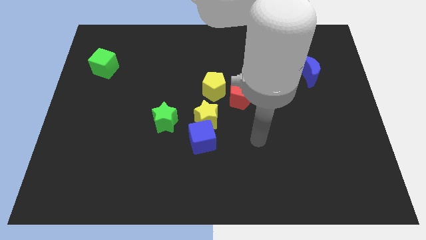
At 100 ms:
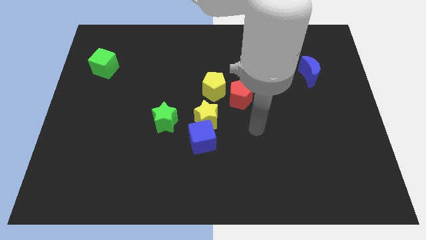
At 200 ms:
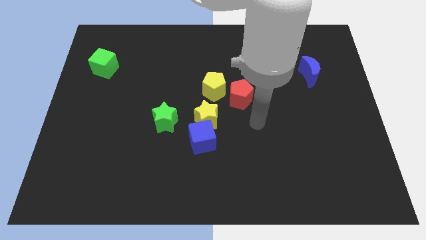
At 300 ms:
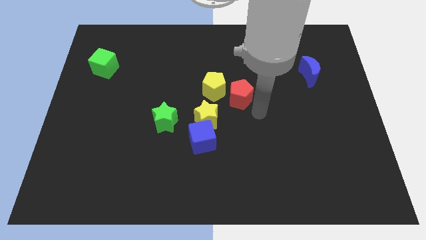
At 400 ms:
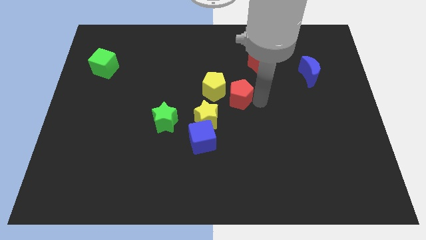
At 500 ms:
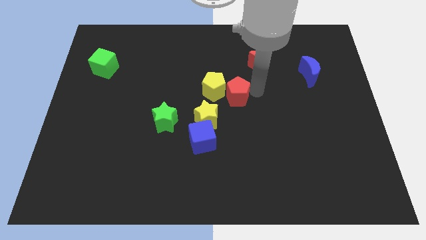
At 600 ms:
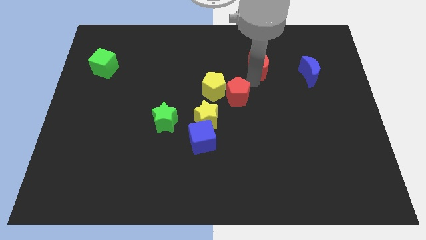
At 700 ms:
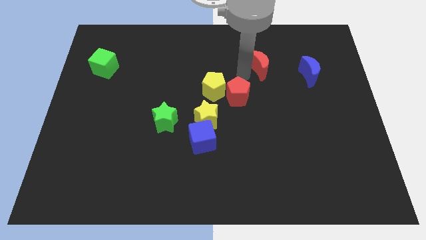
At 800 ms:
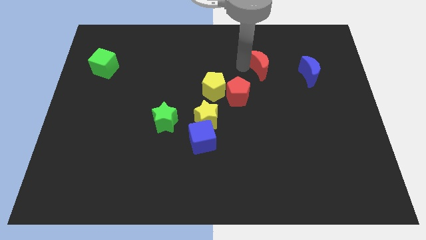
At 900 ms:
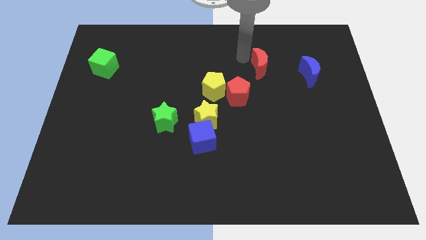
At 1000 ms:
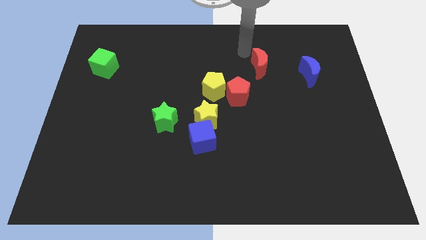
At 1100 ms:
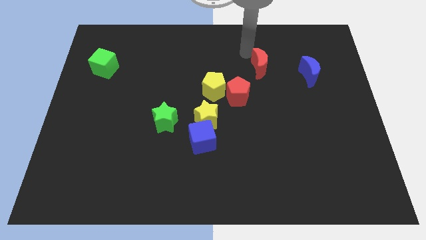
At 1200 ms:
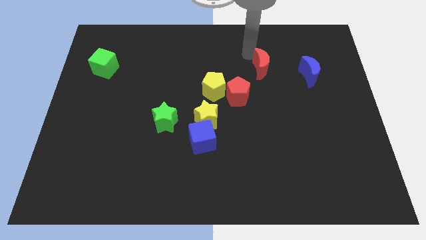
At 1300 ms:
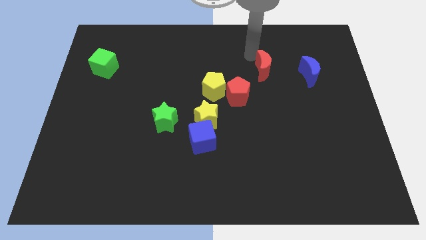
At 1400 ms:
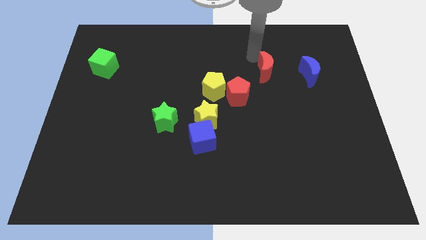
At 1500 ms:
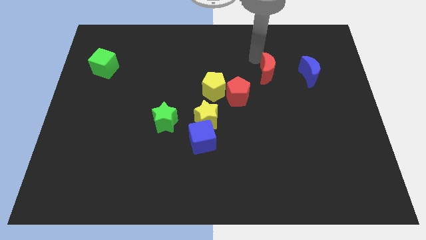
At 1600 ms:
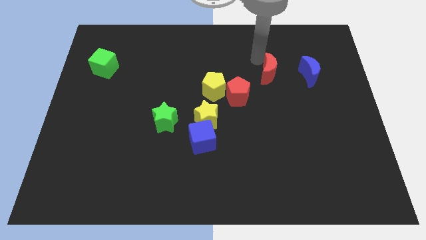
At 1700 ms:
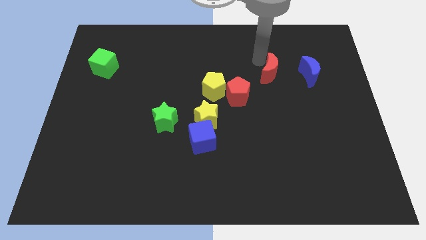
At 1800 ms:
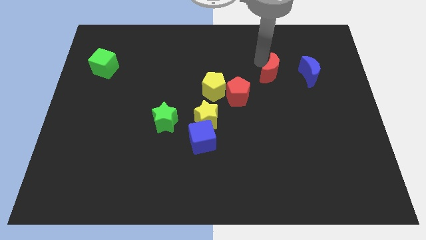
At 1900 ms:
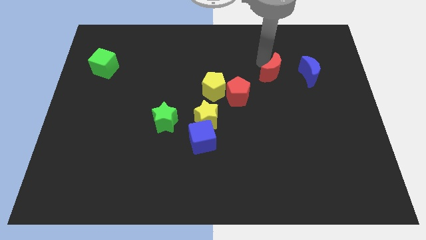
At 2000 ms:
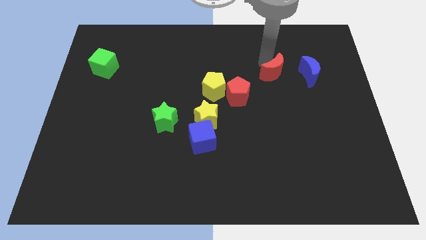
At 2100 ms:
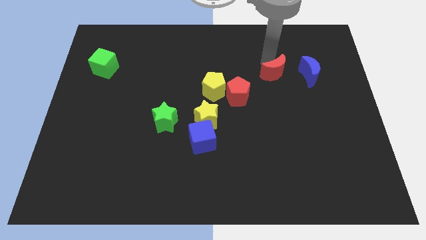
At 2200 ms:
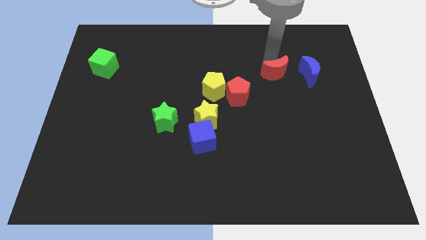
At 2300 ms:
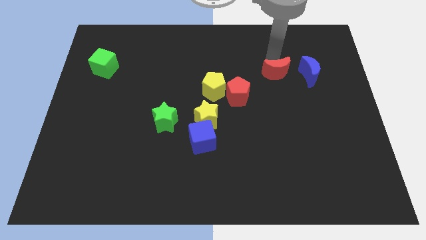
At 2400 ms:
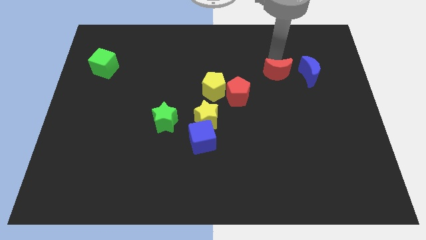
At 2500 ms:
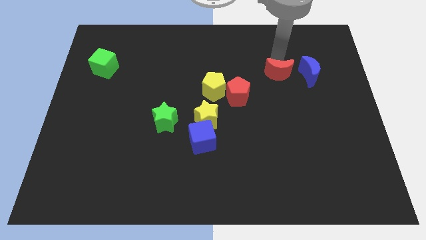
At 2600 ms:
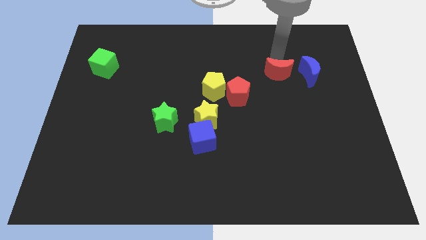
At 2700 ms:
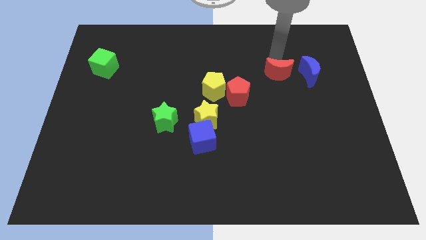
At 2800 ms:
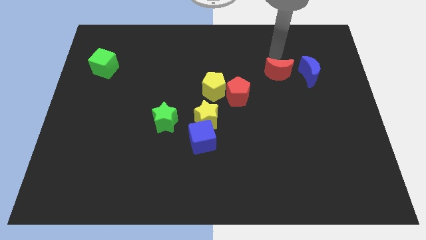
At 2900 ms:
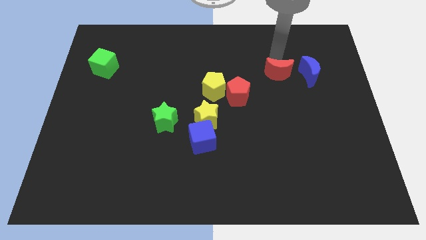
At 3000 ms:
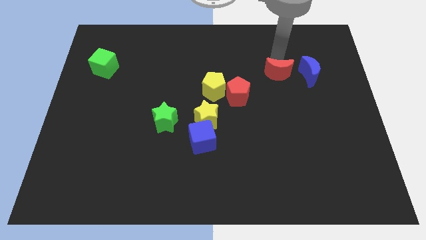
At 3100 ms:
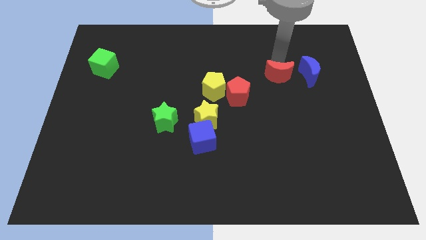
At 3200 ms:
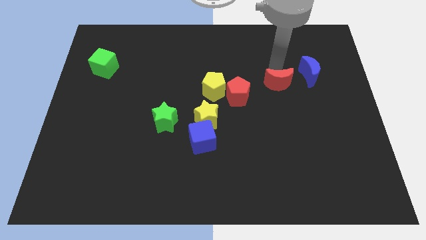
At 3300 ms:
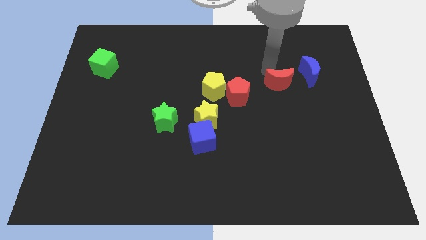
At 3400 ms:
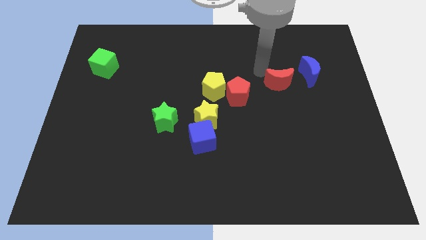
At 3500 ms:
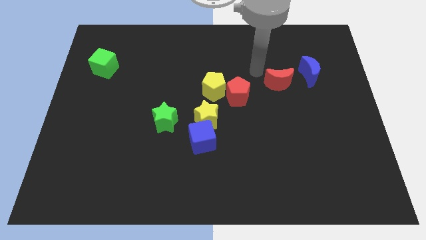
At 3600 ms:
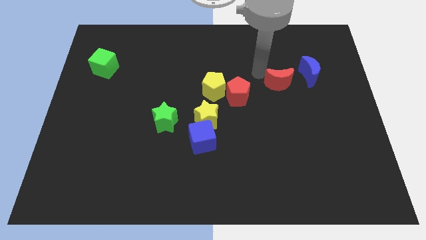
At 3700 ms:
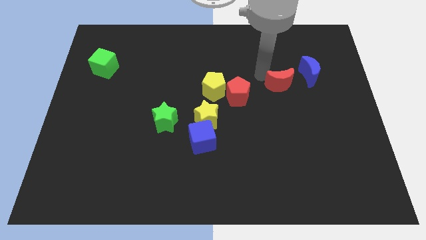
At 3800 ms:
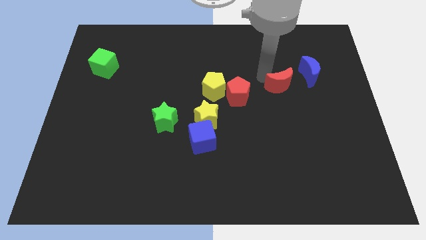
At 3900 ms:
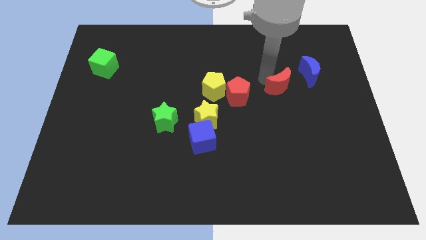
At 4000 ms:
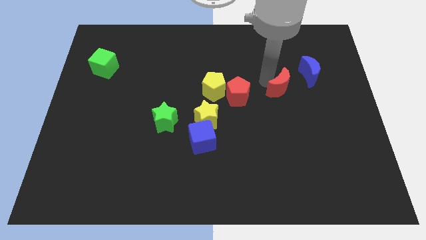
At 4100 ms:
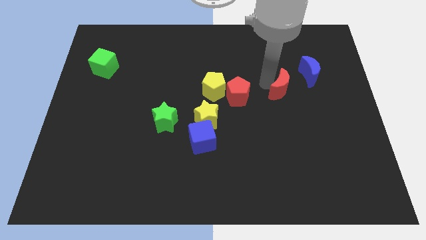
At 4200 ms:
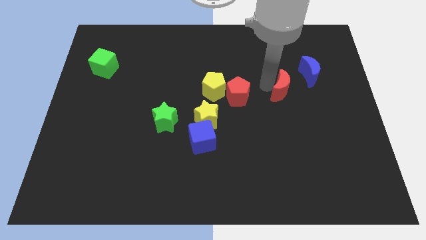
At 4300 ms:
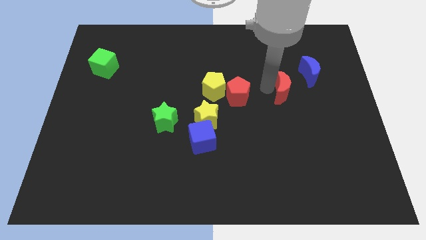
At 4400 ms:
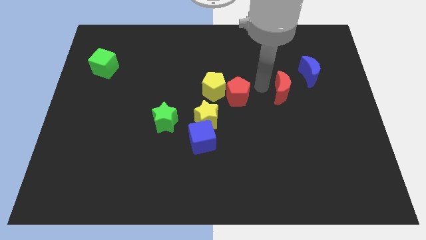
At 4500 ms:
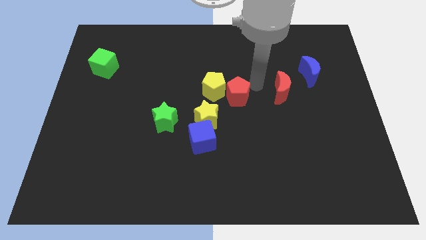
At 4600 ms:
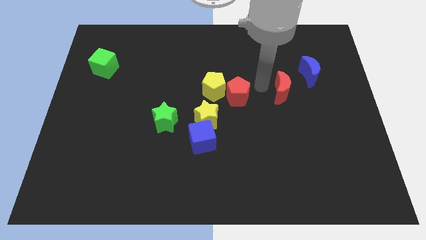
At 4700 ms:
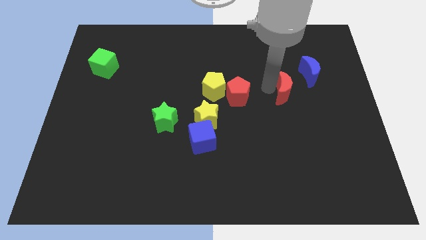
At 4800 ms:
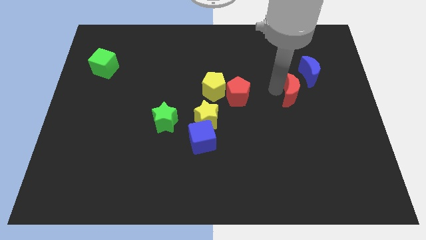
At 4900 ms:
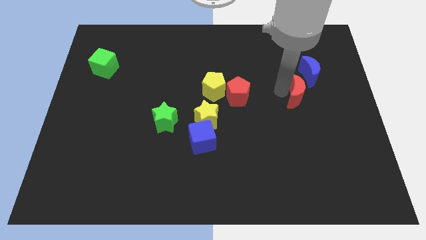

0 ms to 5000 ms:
push the red moon below the blue moon

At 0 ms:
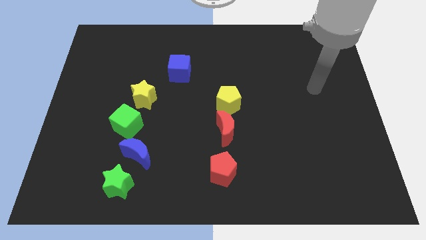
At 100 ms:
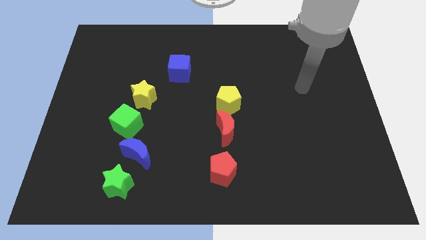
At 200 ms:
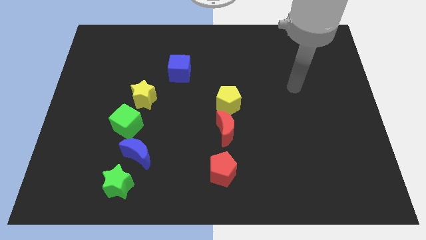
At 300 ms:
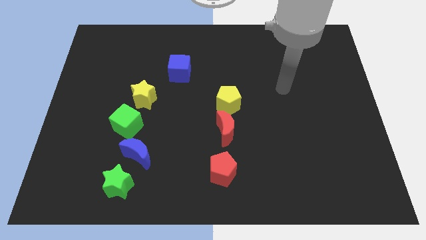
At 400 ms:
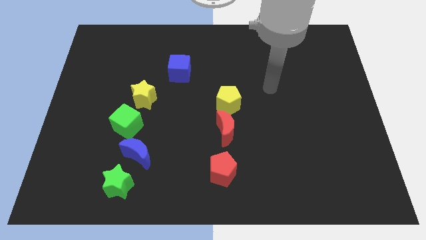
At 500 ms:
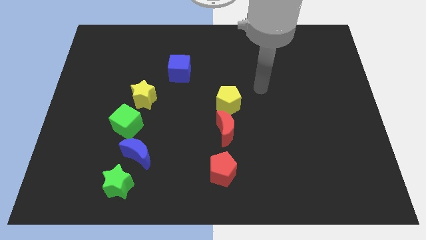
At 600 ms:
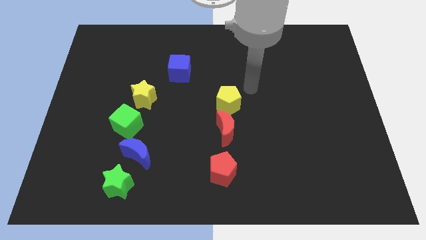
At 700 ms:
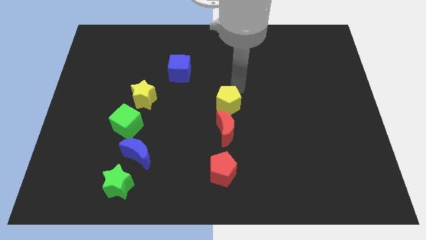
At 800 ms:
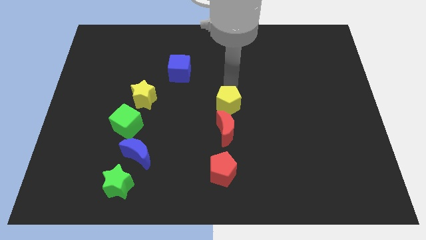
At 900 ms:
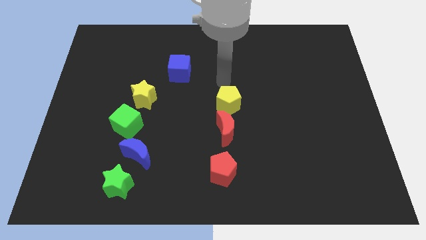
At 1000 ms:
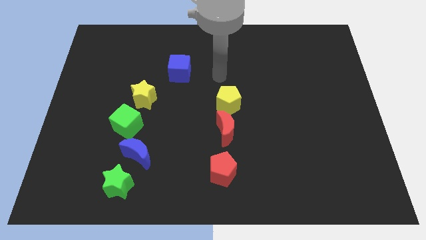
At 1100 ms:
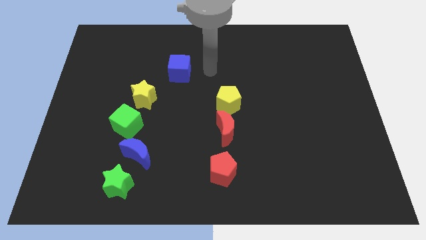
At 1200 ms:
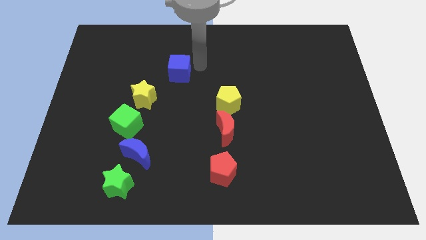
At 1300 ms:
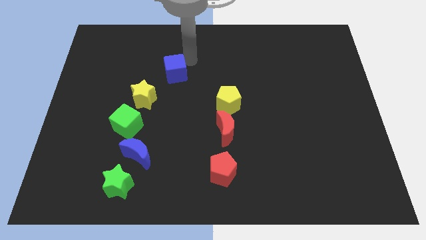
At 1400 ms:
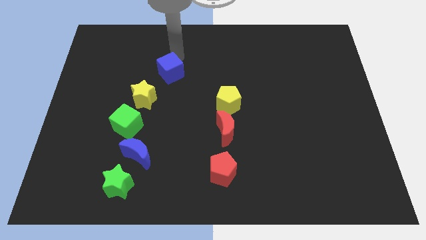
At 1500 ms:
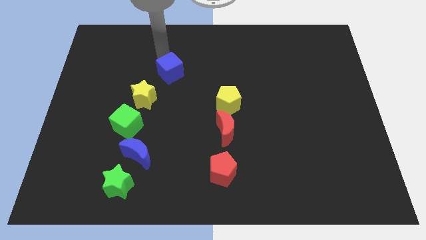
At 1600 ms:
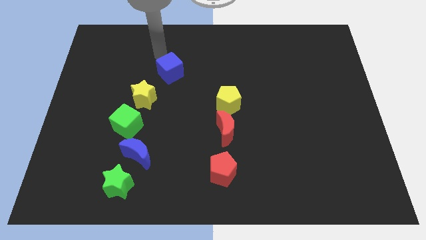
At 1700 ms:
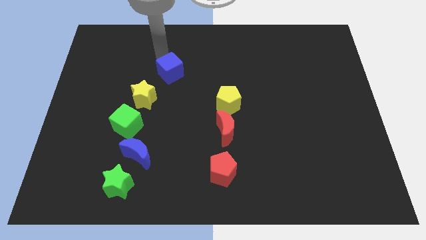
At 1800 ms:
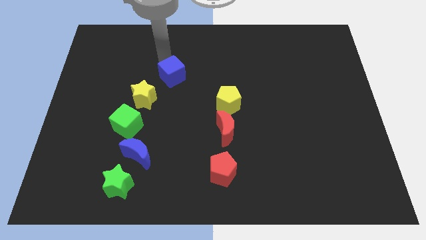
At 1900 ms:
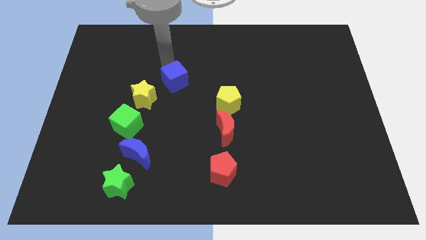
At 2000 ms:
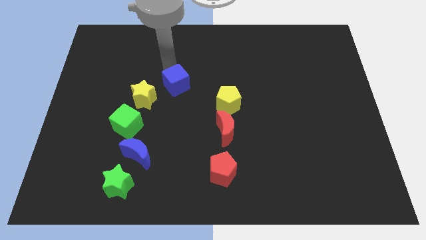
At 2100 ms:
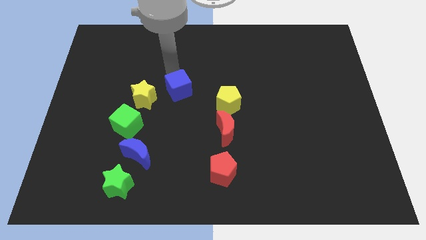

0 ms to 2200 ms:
push the blue cube to the left of the yellow pentagon
